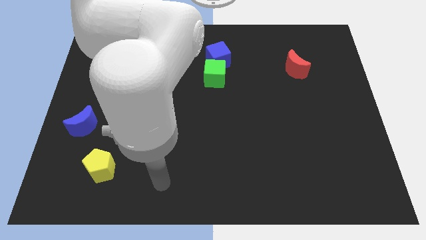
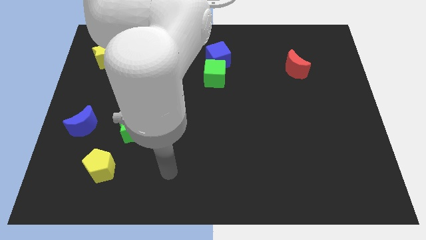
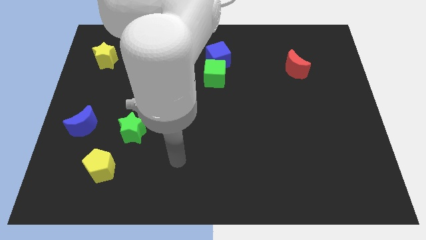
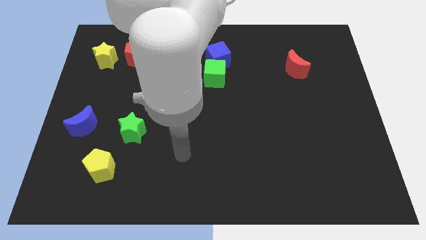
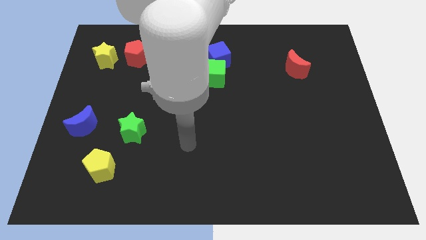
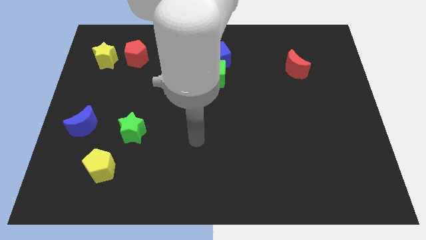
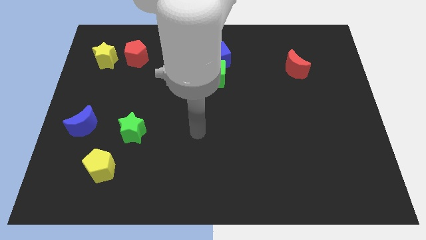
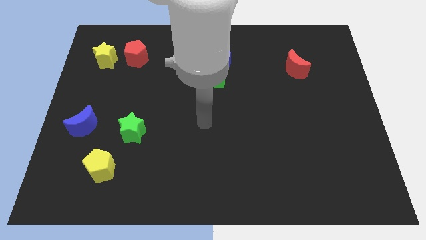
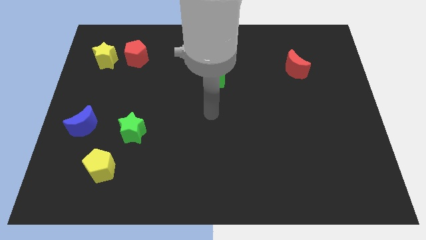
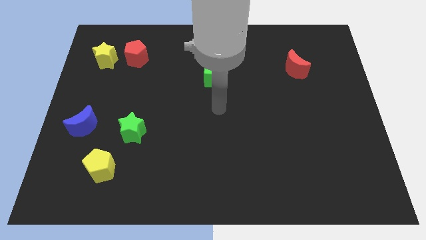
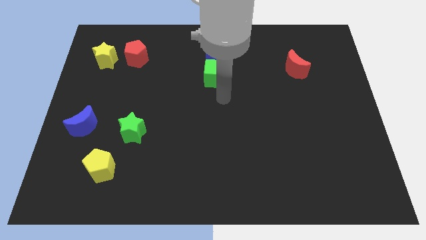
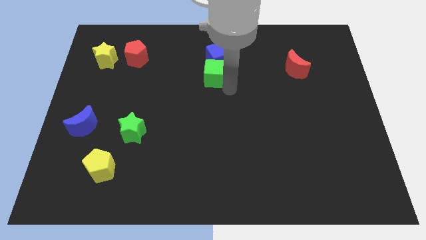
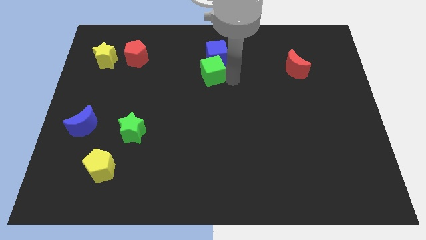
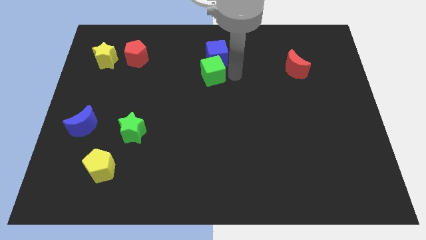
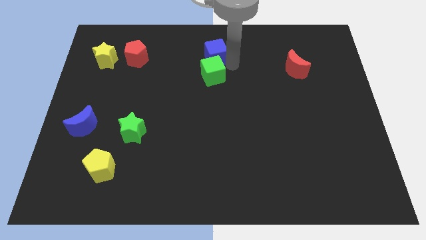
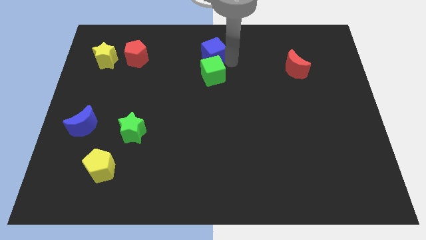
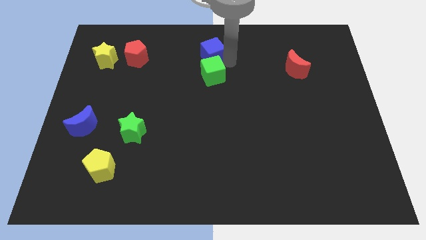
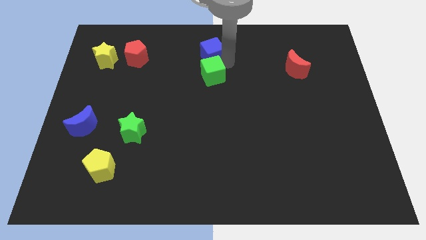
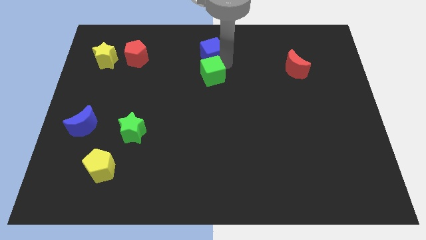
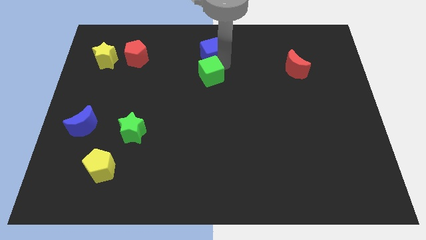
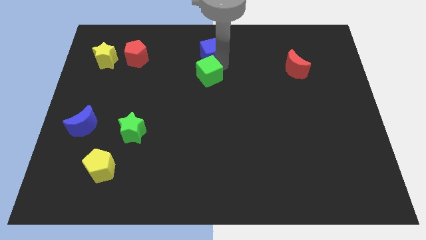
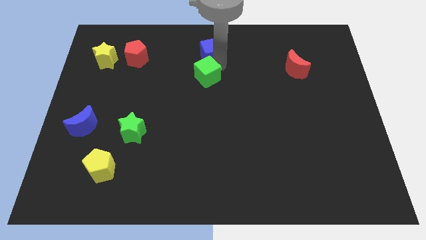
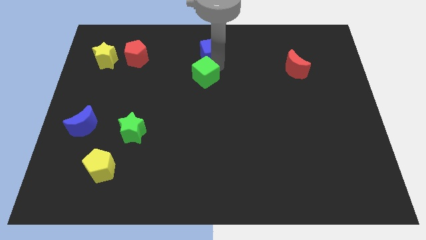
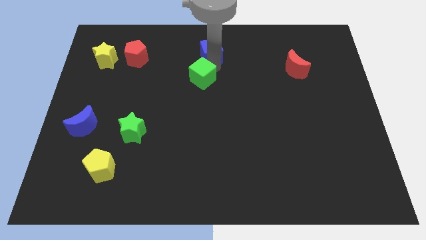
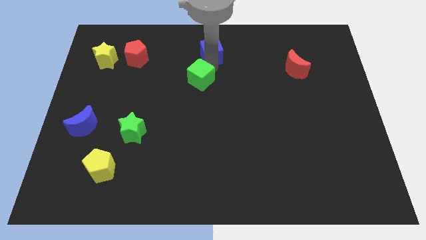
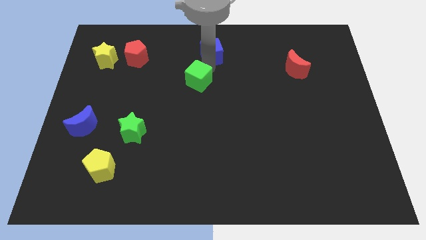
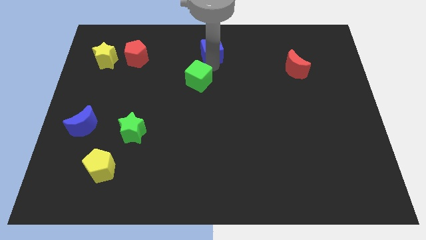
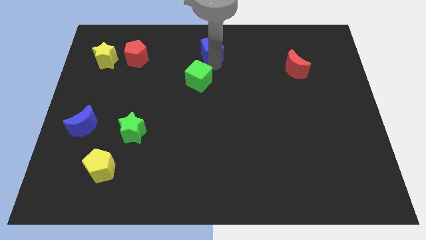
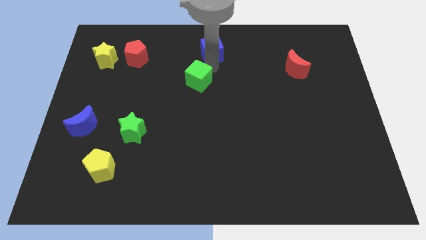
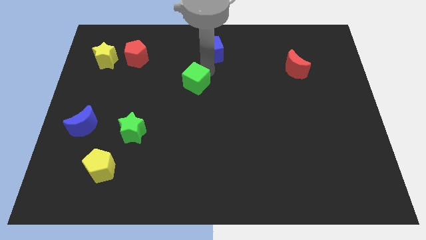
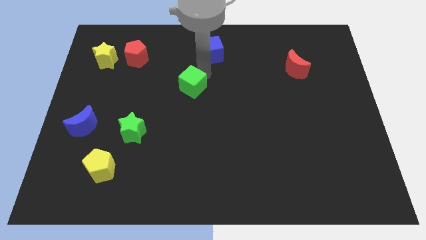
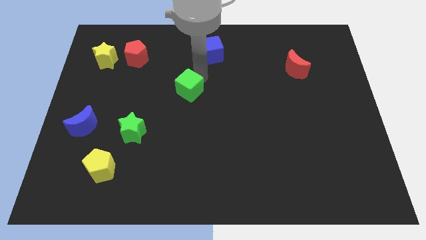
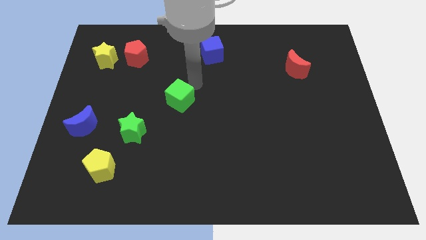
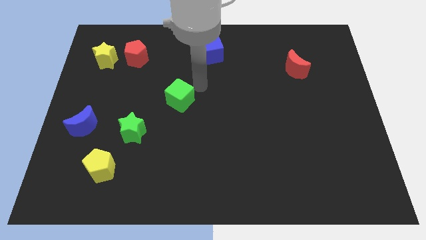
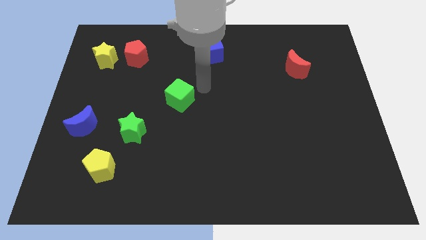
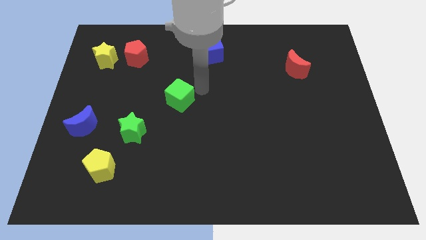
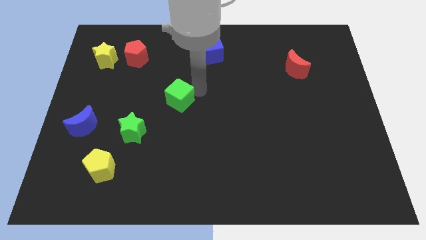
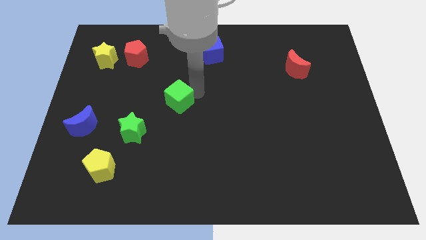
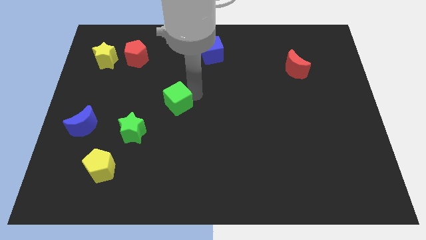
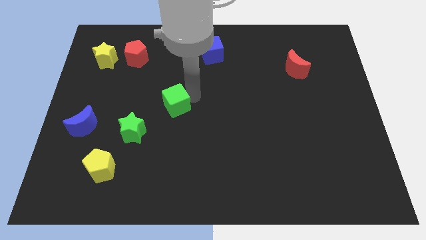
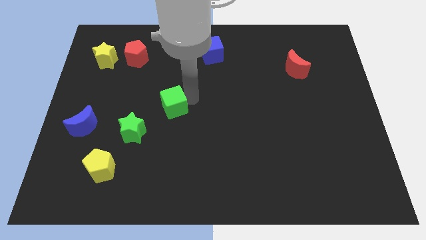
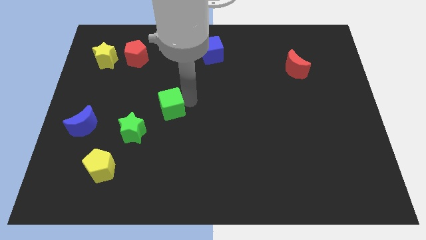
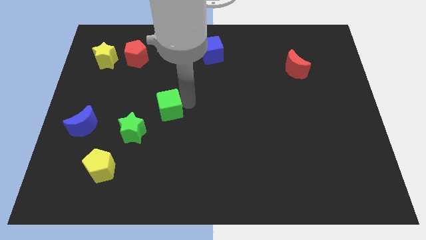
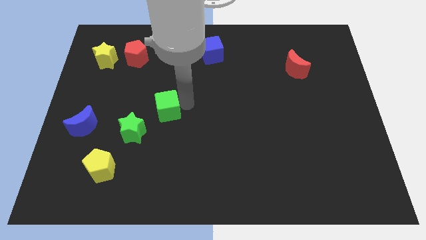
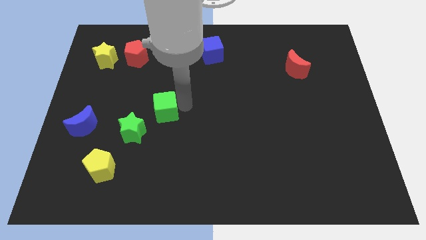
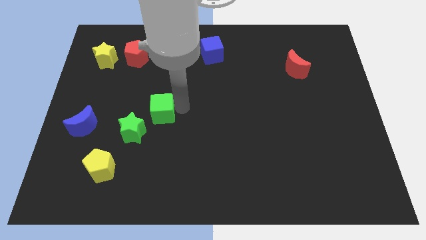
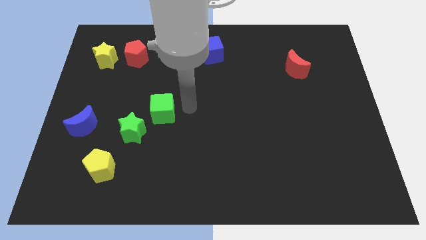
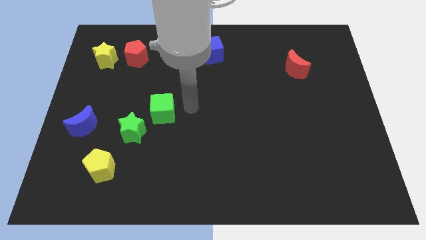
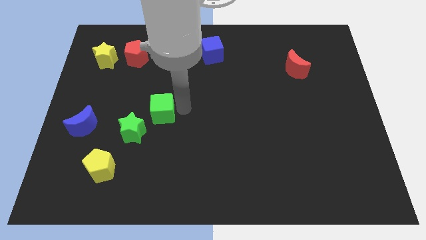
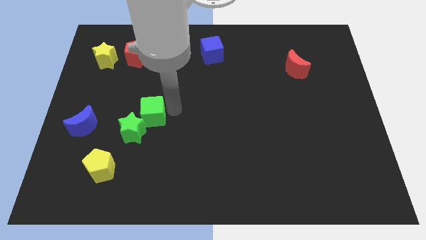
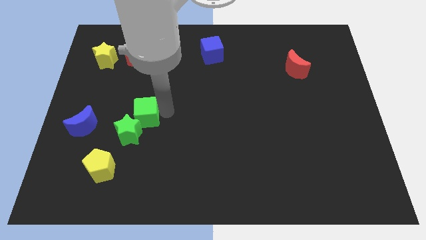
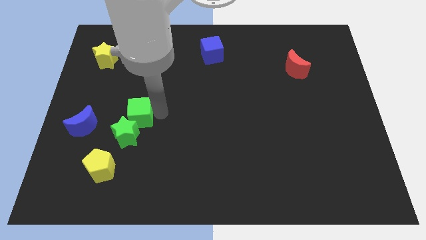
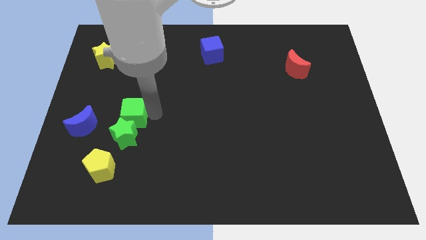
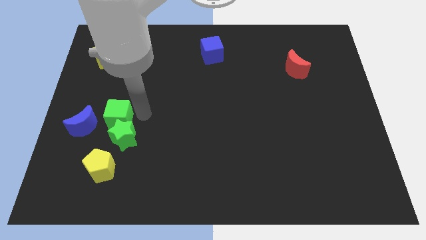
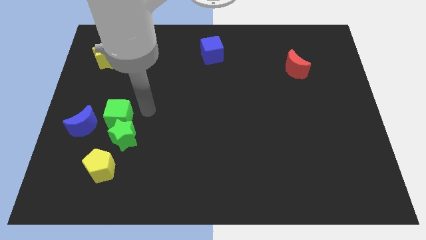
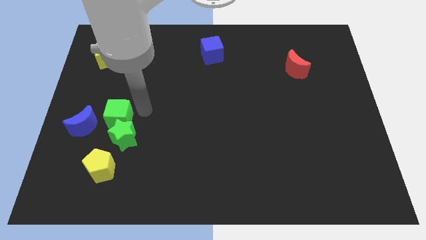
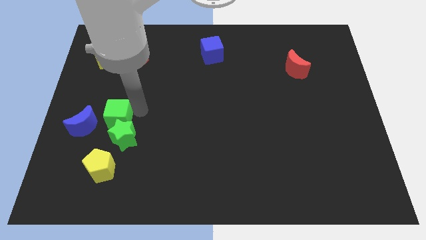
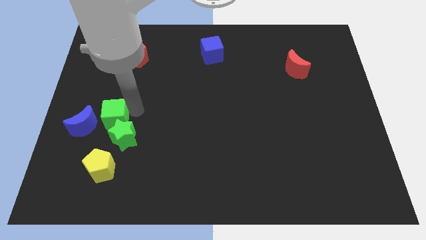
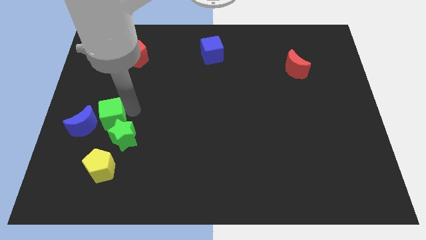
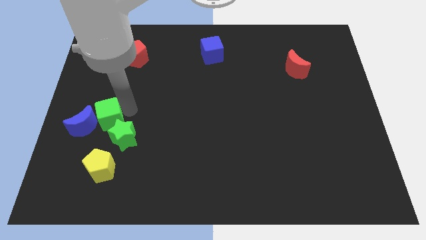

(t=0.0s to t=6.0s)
push the green cube next to the blue moon
